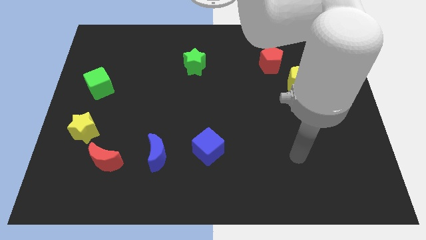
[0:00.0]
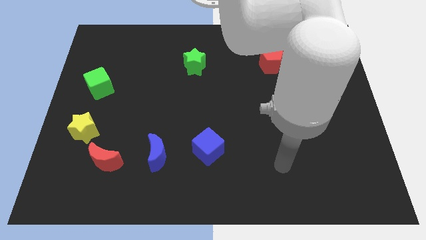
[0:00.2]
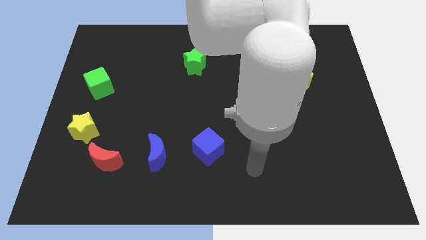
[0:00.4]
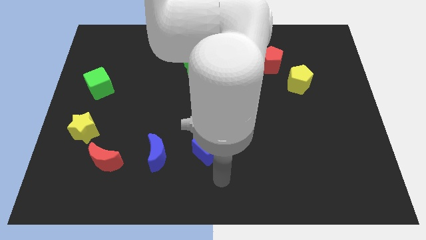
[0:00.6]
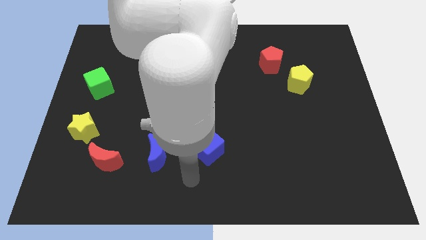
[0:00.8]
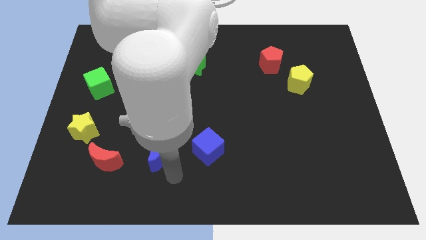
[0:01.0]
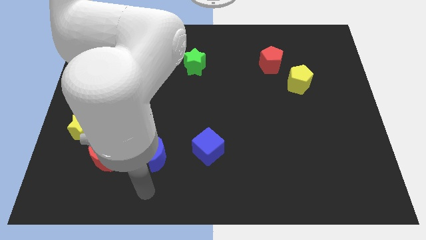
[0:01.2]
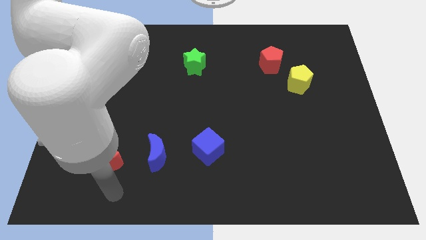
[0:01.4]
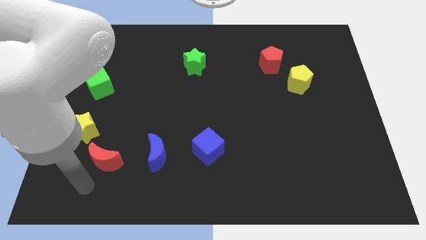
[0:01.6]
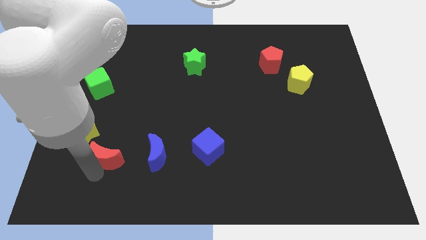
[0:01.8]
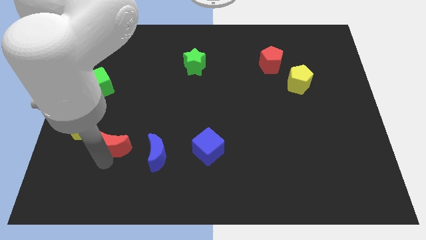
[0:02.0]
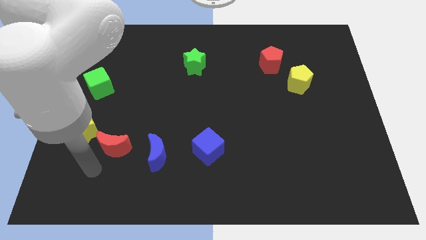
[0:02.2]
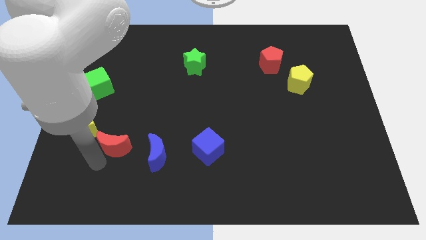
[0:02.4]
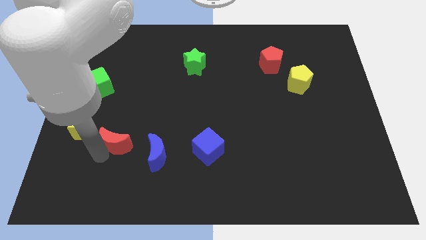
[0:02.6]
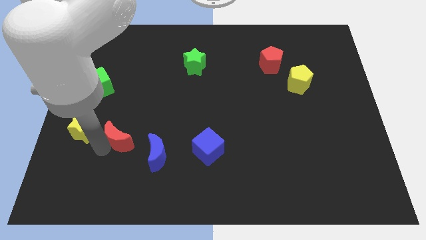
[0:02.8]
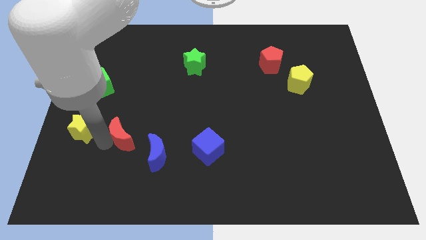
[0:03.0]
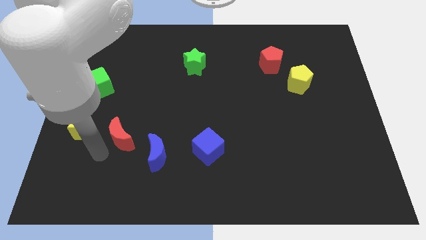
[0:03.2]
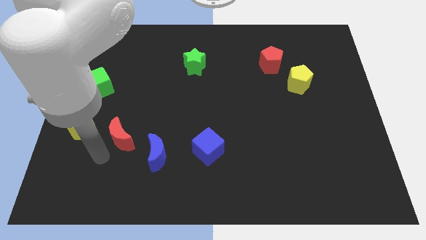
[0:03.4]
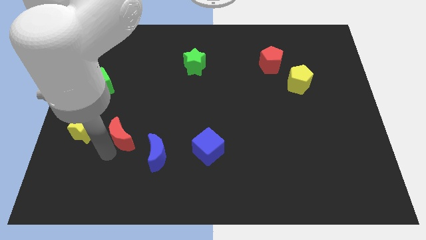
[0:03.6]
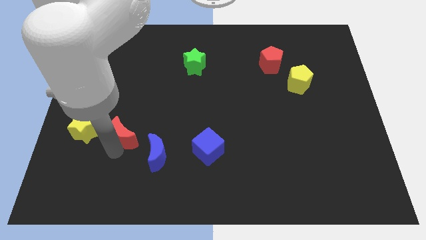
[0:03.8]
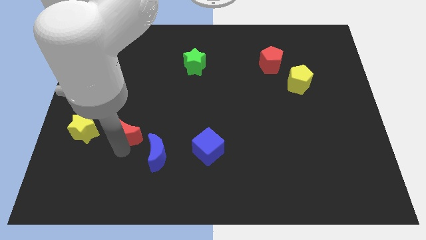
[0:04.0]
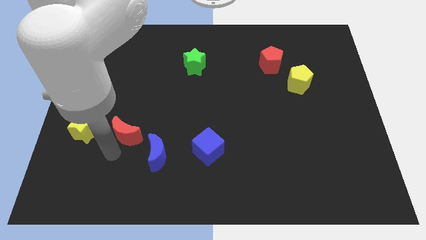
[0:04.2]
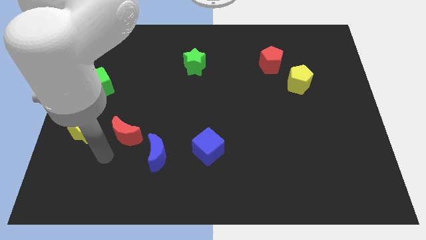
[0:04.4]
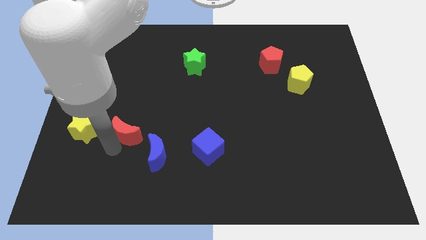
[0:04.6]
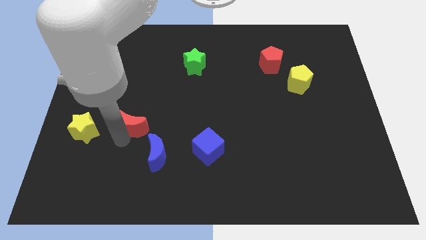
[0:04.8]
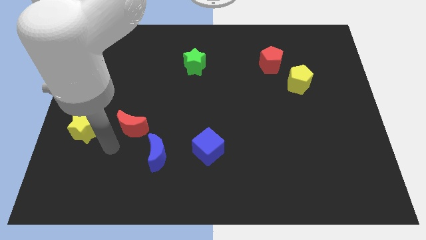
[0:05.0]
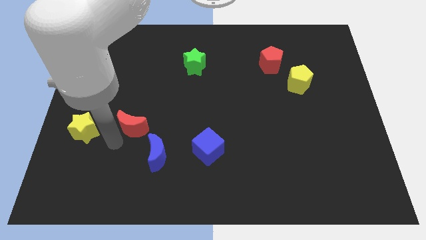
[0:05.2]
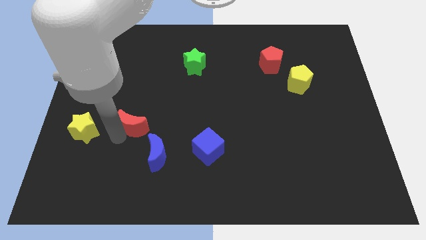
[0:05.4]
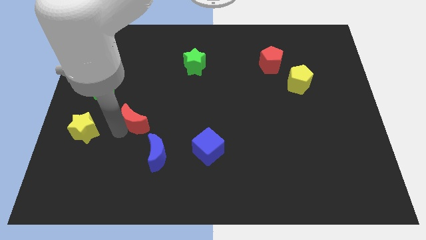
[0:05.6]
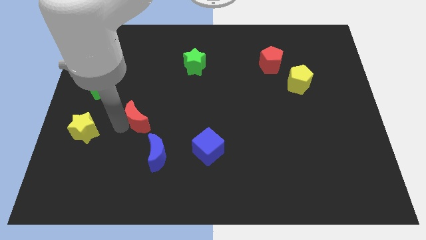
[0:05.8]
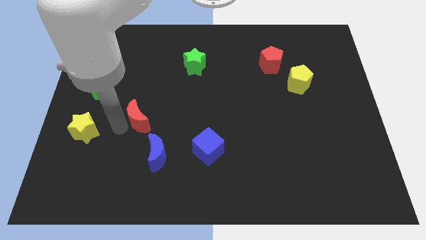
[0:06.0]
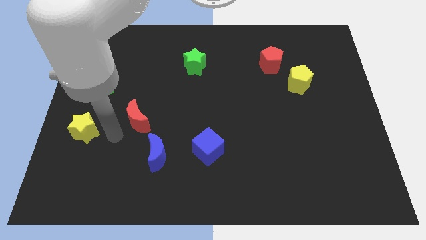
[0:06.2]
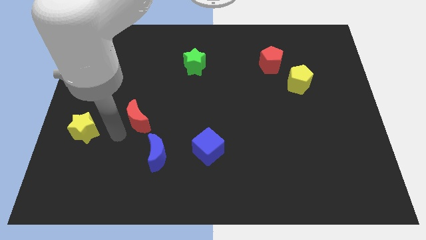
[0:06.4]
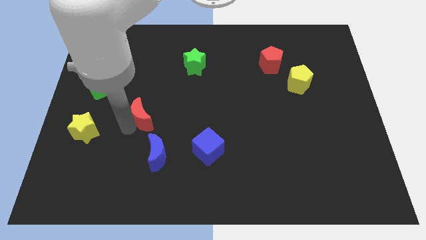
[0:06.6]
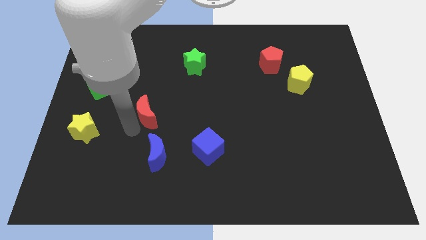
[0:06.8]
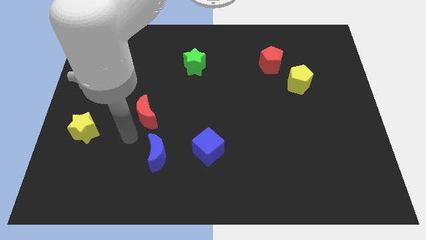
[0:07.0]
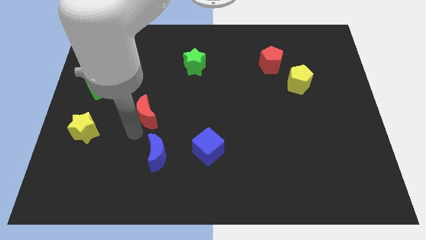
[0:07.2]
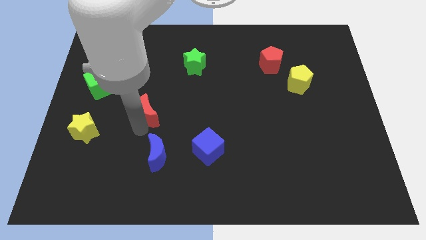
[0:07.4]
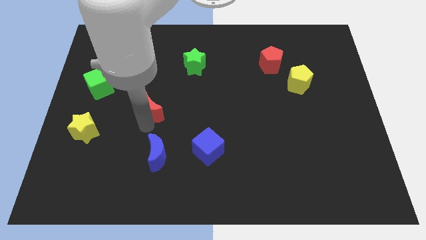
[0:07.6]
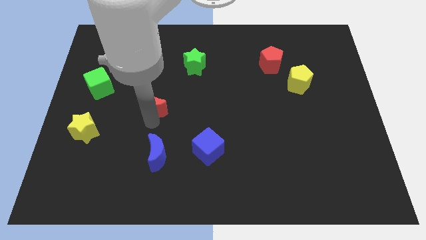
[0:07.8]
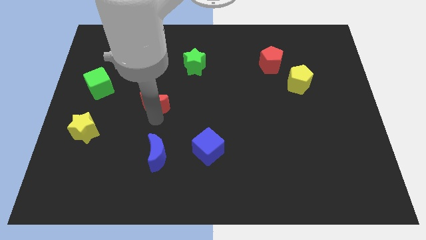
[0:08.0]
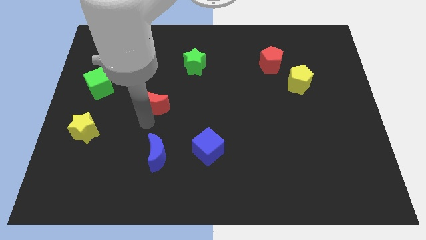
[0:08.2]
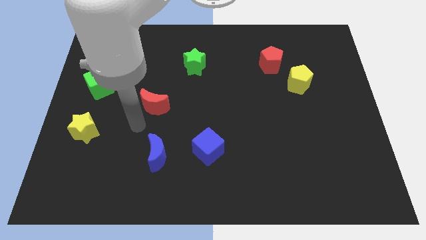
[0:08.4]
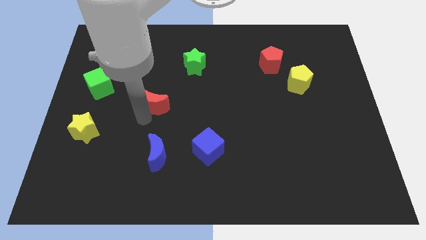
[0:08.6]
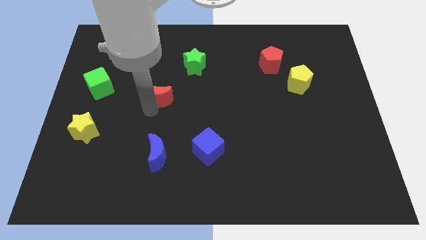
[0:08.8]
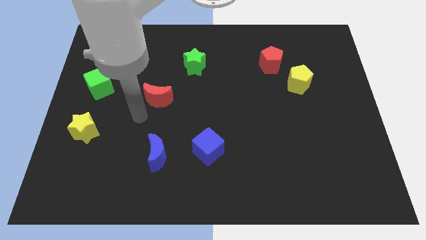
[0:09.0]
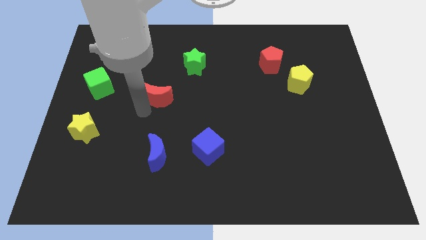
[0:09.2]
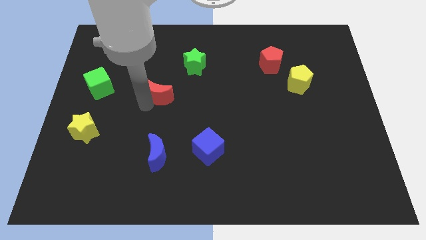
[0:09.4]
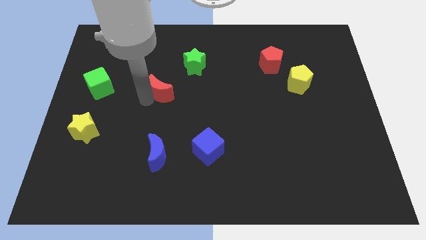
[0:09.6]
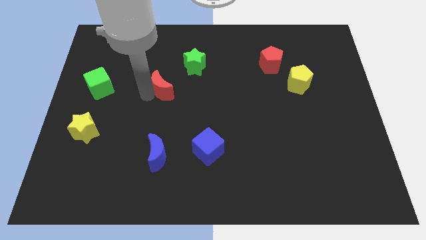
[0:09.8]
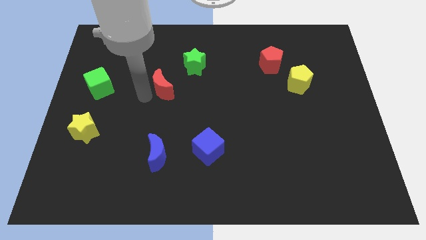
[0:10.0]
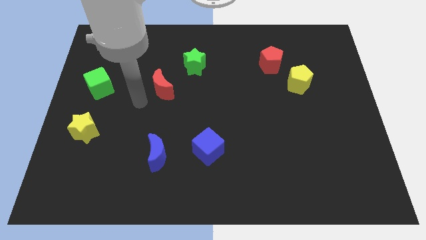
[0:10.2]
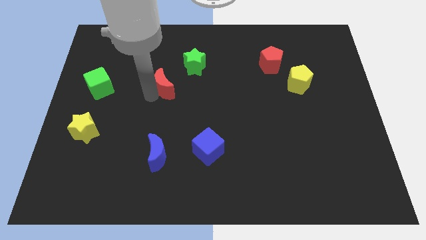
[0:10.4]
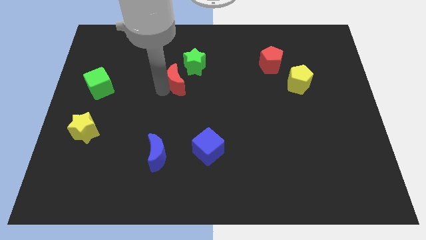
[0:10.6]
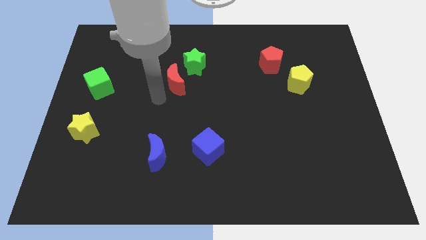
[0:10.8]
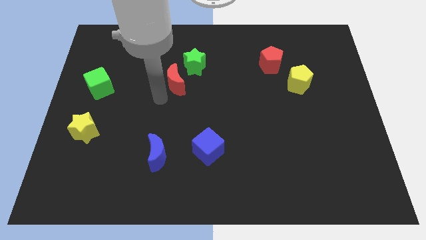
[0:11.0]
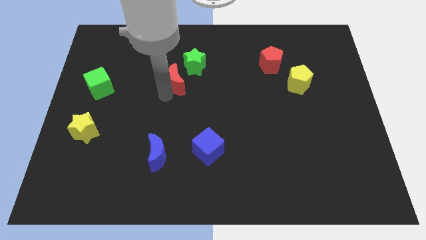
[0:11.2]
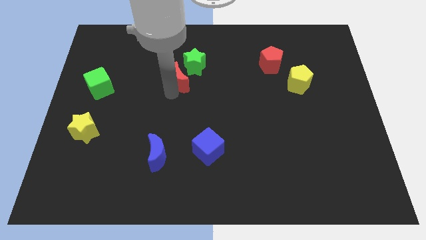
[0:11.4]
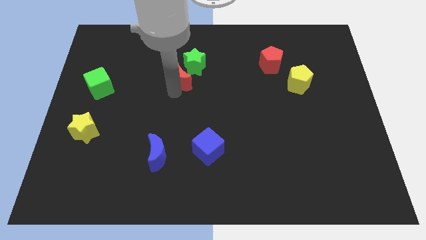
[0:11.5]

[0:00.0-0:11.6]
push the red moon next to the green star

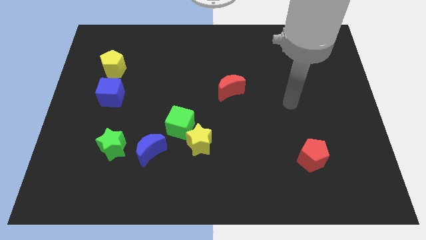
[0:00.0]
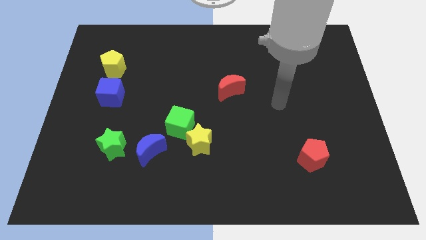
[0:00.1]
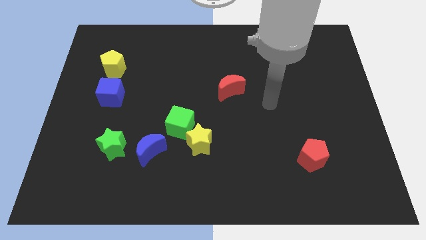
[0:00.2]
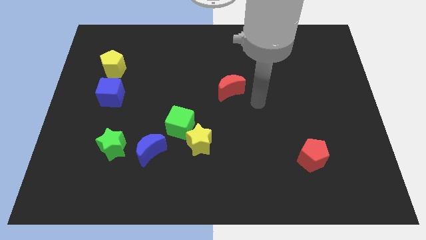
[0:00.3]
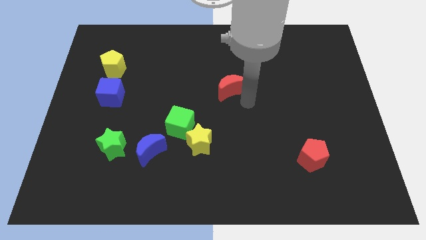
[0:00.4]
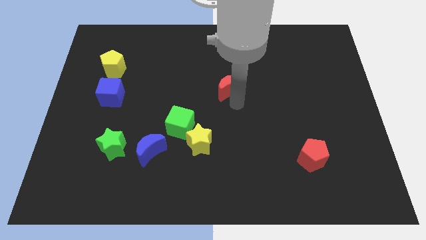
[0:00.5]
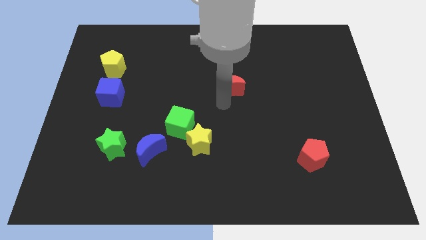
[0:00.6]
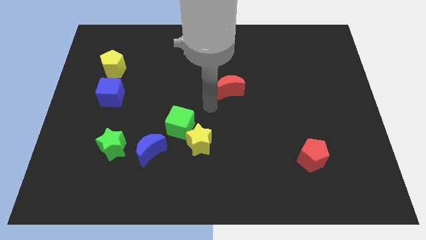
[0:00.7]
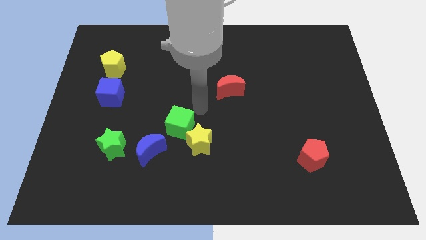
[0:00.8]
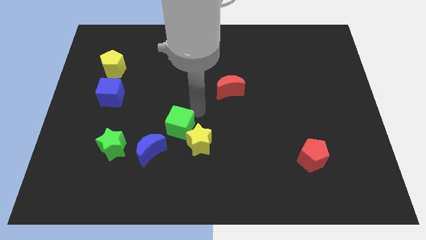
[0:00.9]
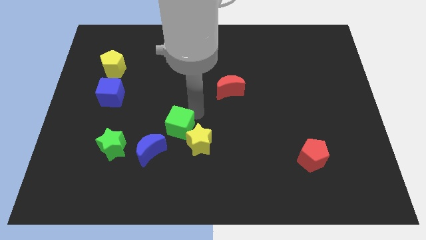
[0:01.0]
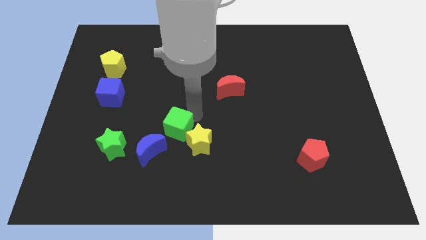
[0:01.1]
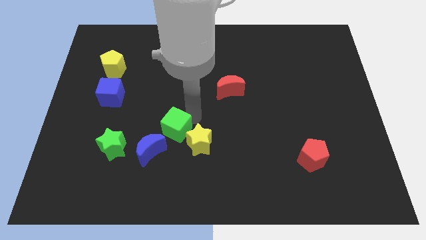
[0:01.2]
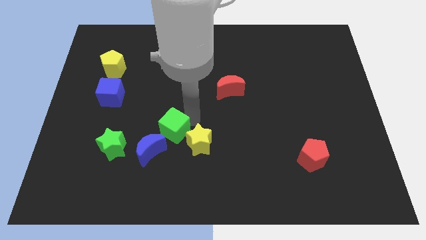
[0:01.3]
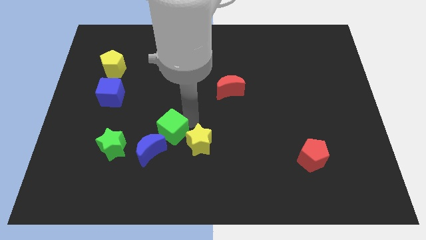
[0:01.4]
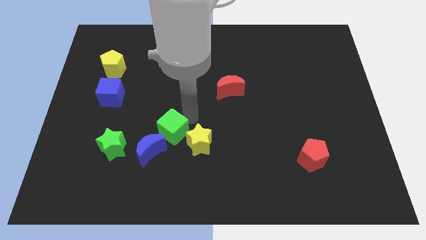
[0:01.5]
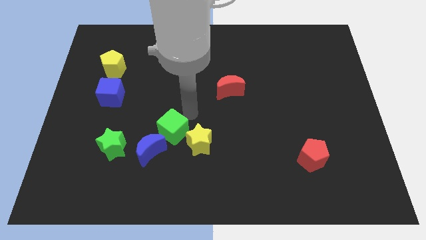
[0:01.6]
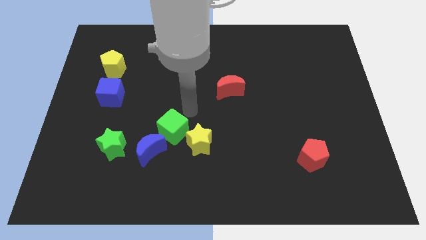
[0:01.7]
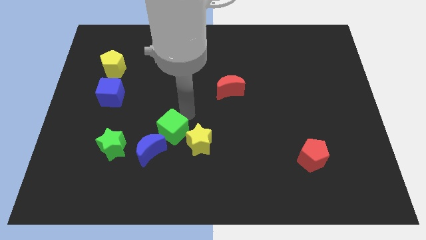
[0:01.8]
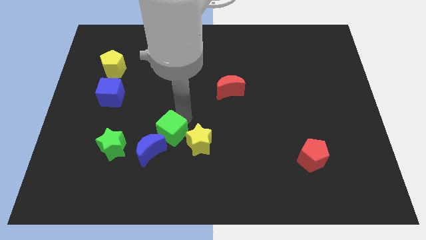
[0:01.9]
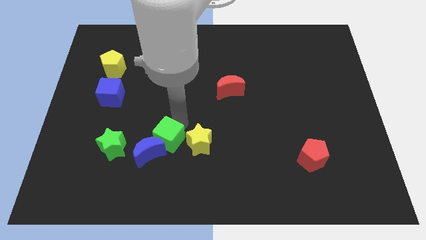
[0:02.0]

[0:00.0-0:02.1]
put the green cube to the blue moon

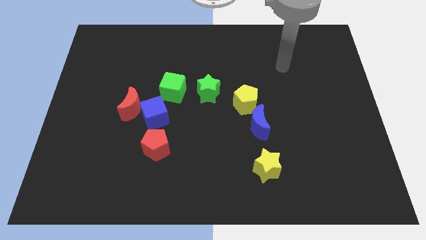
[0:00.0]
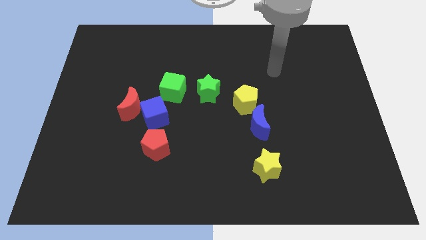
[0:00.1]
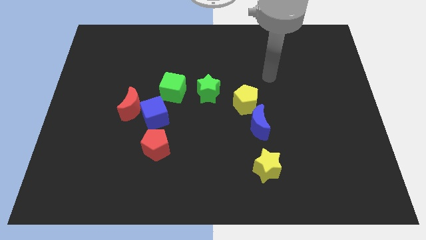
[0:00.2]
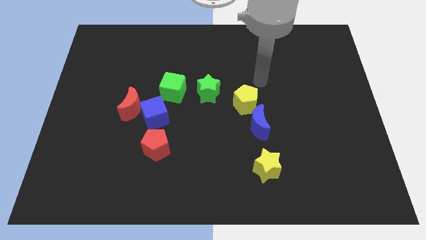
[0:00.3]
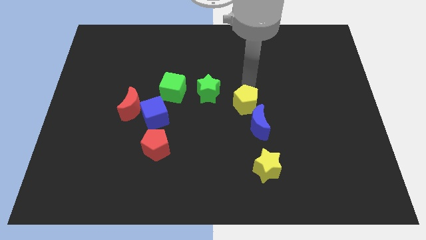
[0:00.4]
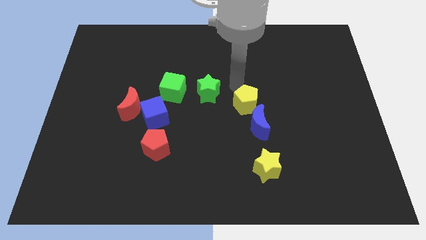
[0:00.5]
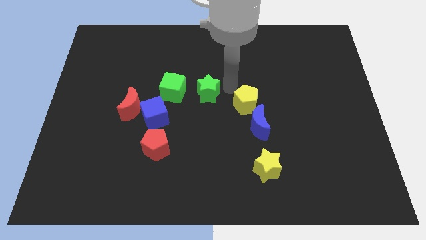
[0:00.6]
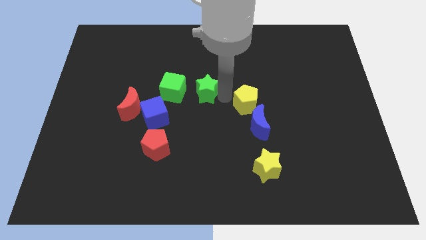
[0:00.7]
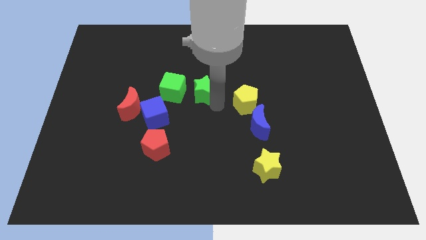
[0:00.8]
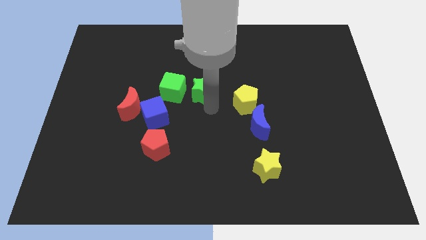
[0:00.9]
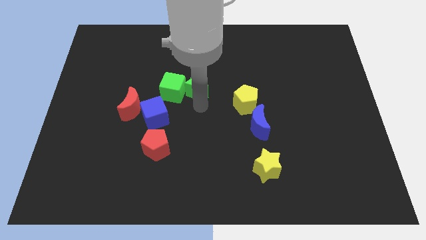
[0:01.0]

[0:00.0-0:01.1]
put the green cube close to the green star
